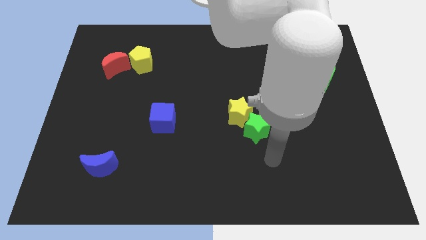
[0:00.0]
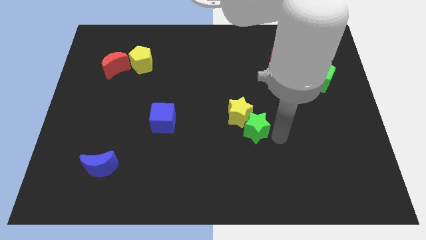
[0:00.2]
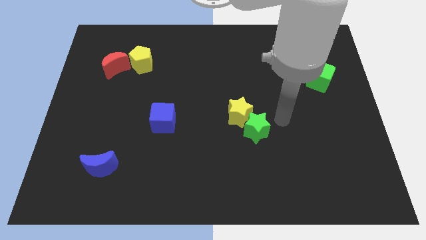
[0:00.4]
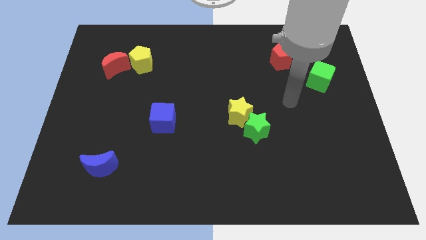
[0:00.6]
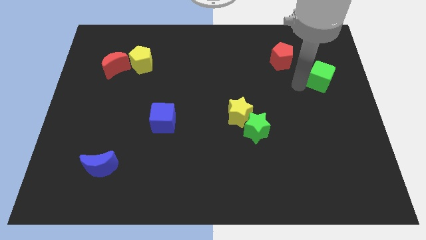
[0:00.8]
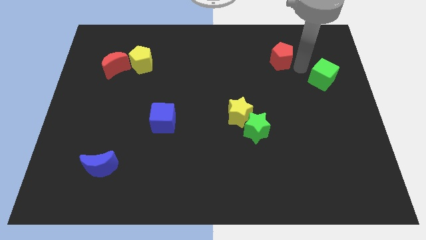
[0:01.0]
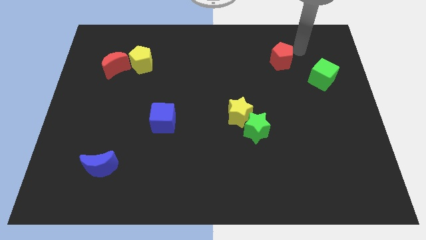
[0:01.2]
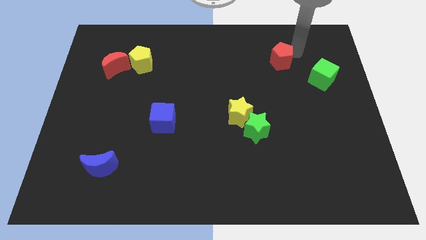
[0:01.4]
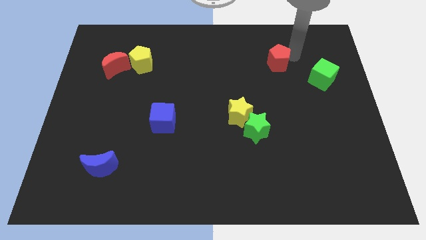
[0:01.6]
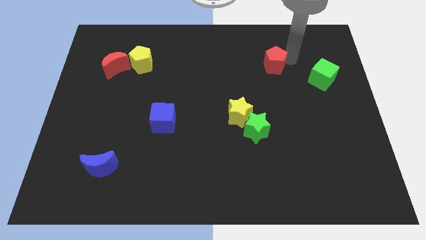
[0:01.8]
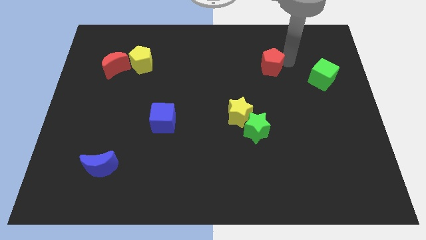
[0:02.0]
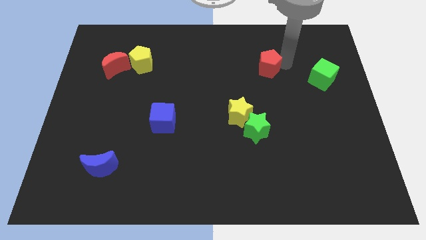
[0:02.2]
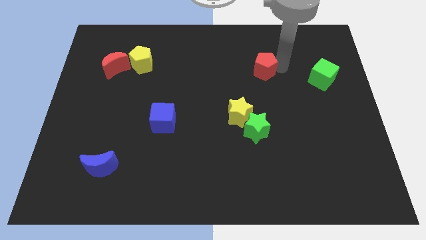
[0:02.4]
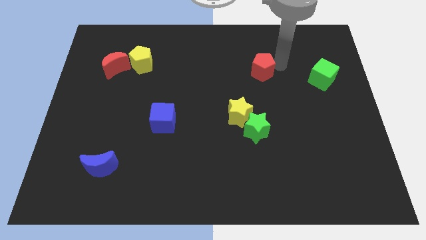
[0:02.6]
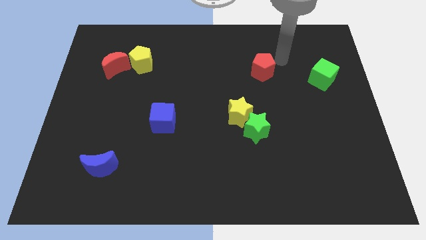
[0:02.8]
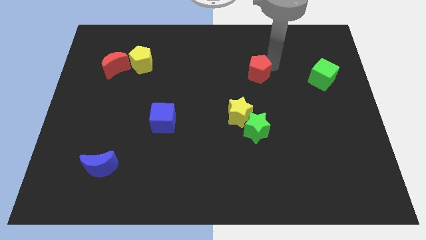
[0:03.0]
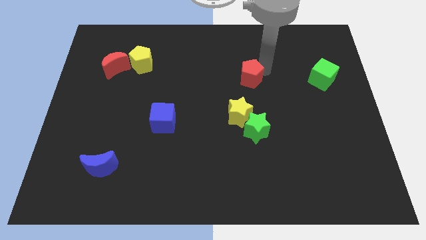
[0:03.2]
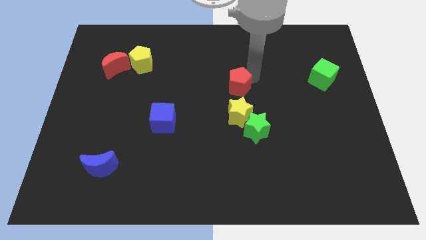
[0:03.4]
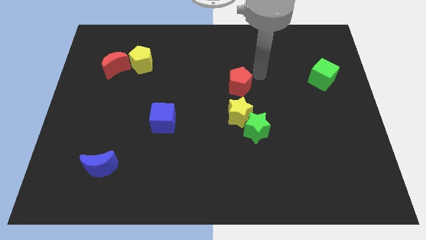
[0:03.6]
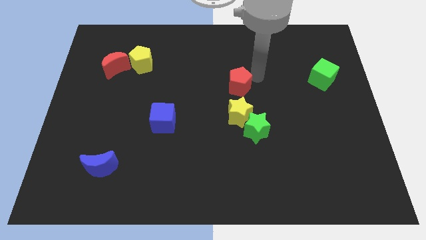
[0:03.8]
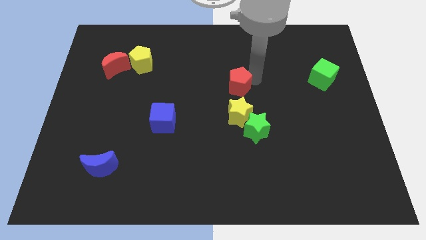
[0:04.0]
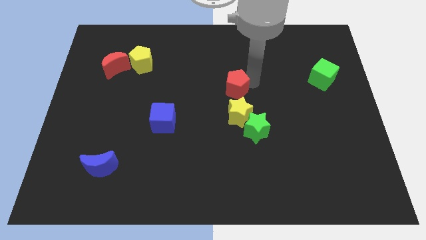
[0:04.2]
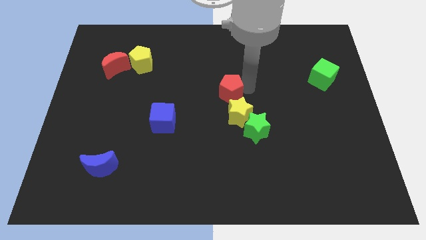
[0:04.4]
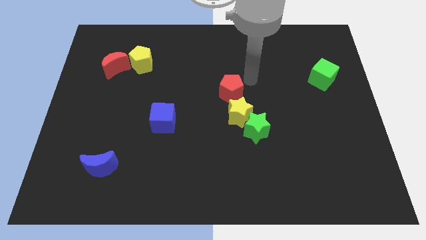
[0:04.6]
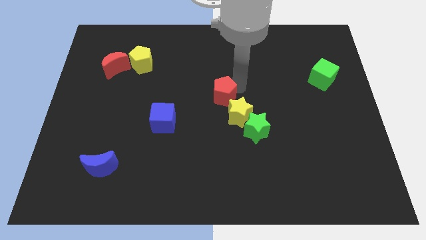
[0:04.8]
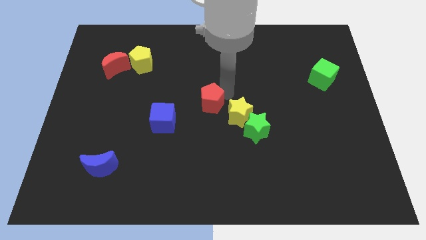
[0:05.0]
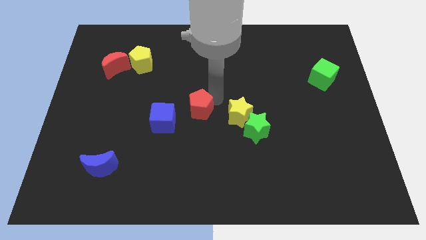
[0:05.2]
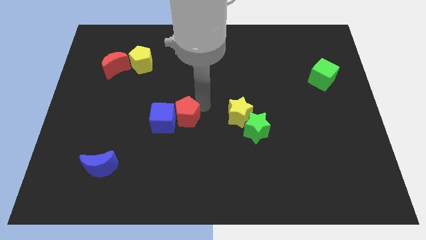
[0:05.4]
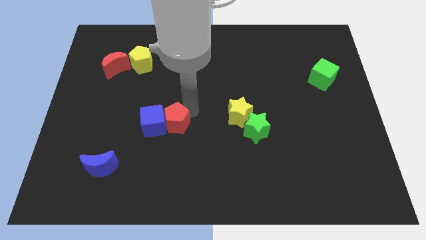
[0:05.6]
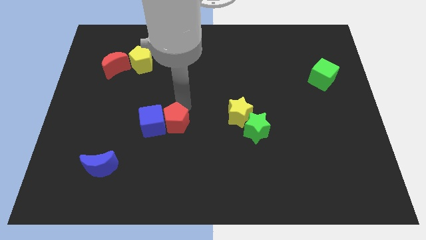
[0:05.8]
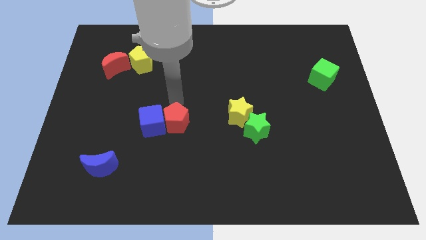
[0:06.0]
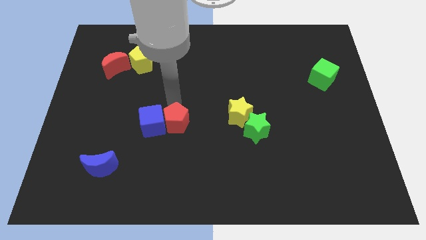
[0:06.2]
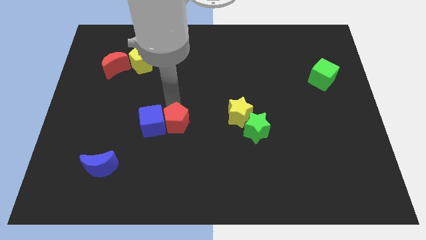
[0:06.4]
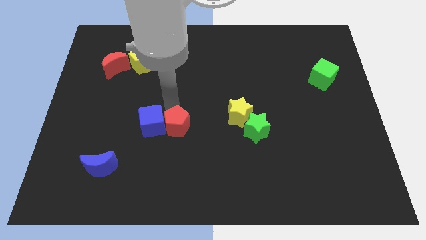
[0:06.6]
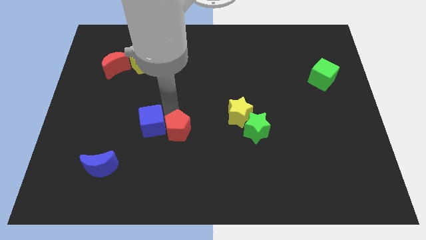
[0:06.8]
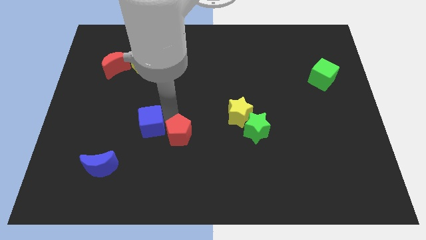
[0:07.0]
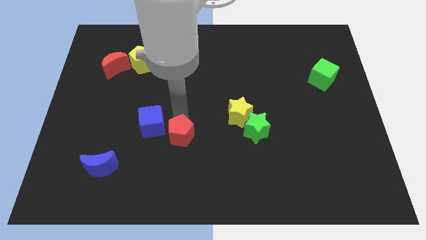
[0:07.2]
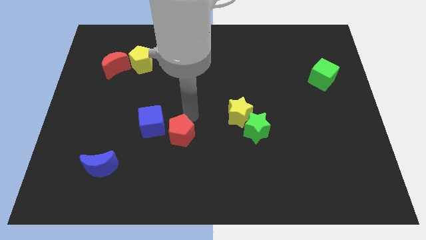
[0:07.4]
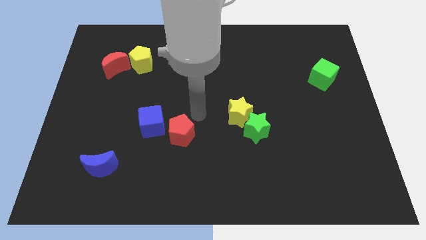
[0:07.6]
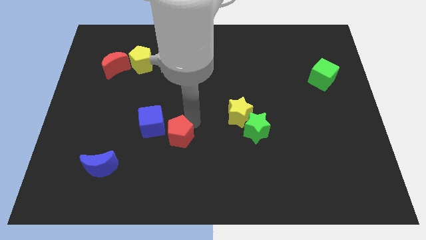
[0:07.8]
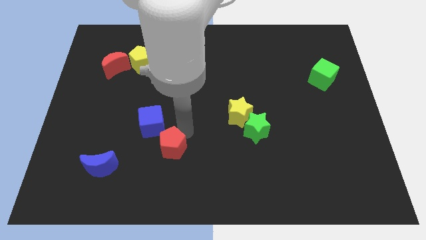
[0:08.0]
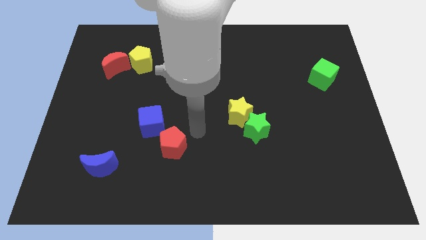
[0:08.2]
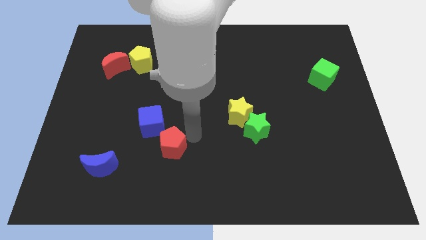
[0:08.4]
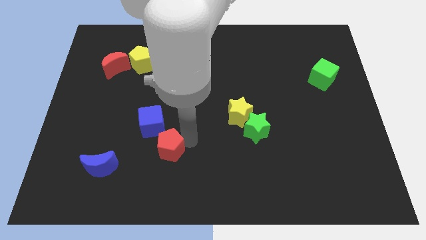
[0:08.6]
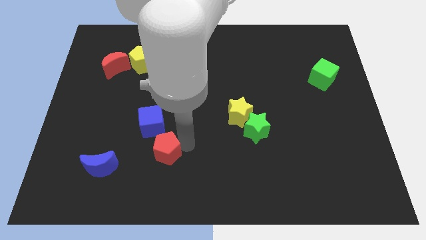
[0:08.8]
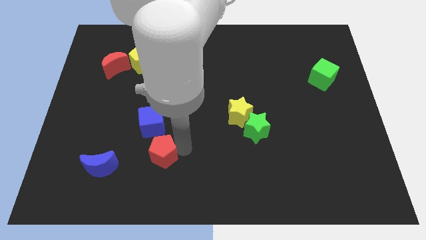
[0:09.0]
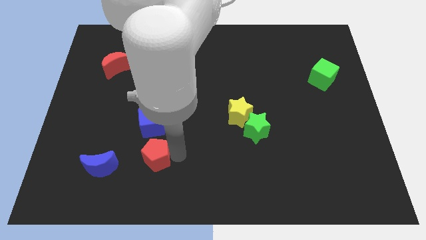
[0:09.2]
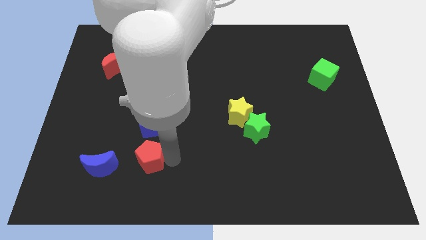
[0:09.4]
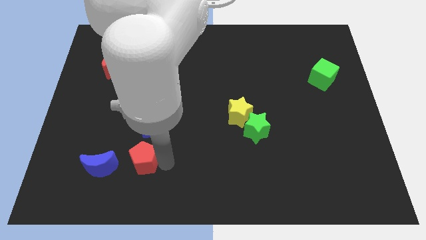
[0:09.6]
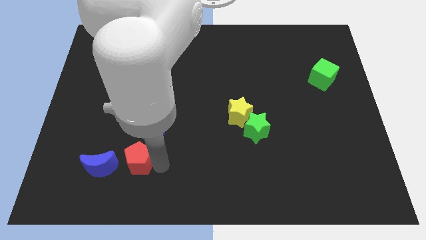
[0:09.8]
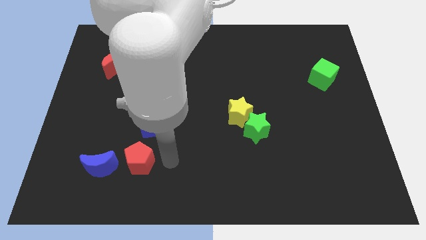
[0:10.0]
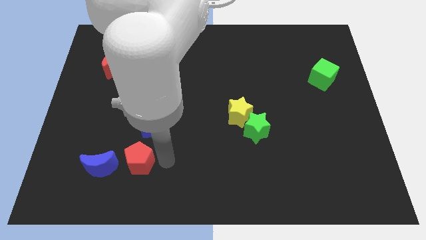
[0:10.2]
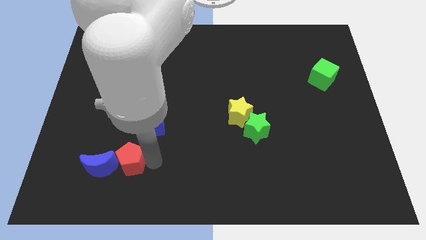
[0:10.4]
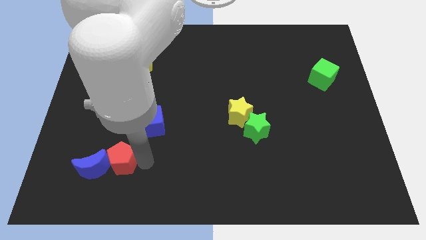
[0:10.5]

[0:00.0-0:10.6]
push the red pentagon towards the blue moon

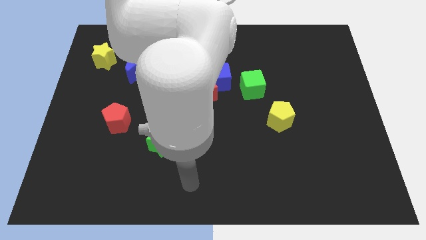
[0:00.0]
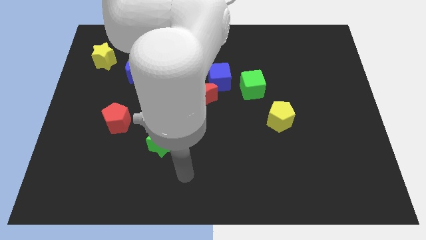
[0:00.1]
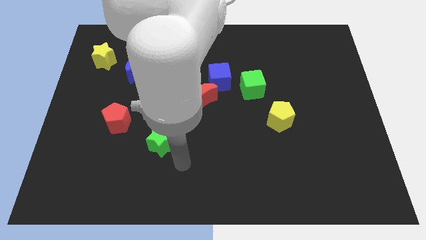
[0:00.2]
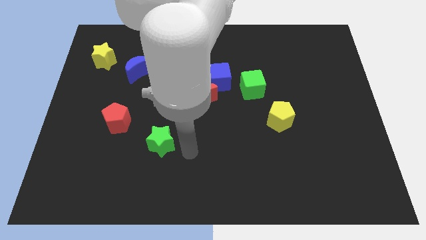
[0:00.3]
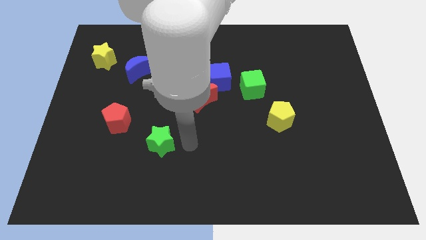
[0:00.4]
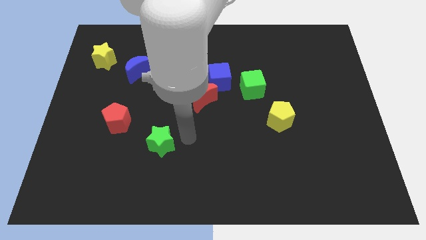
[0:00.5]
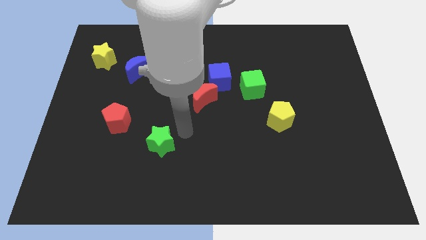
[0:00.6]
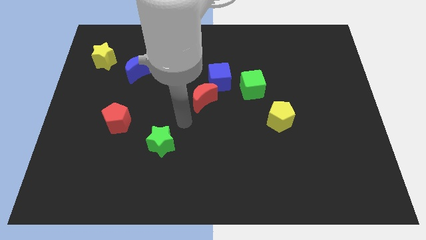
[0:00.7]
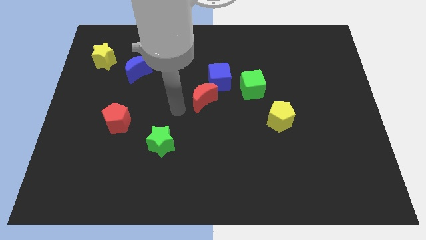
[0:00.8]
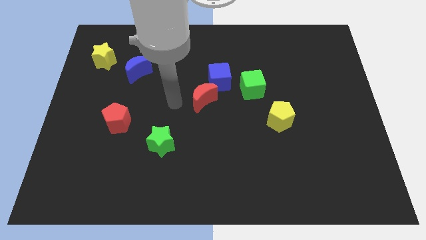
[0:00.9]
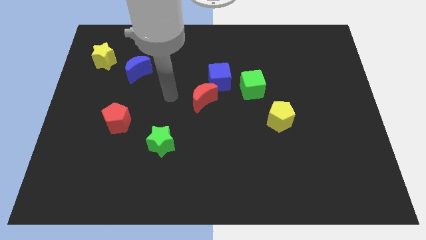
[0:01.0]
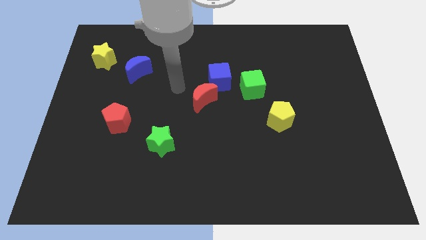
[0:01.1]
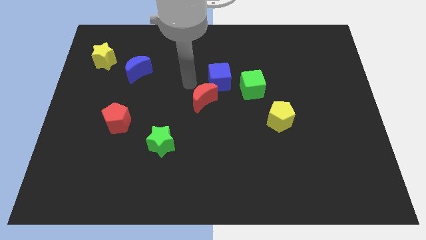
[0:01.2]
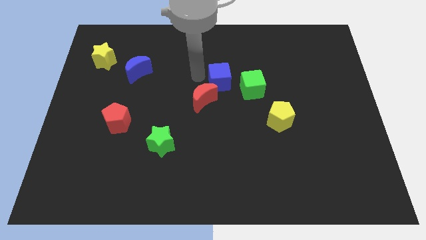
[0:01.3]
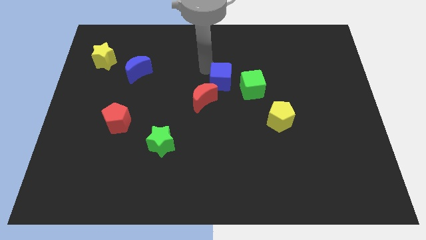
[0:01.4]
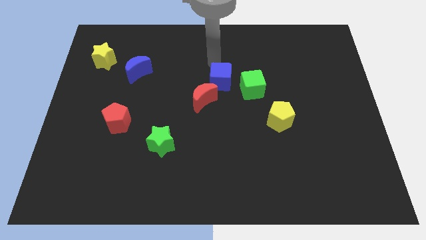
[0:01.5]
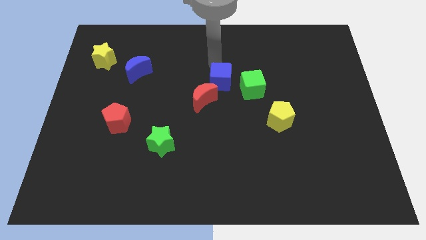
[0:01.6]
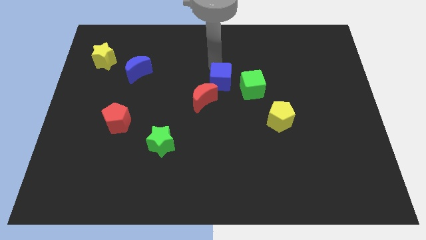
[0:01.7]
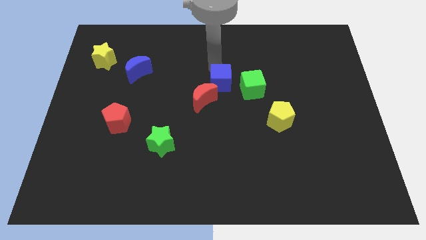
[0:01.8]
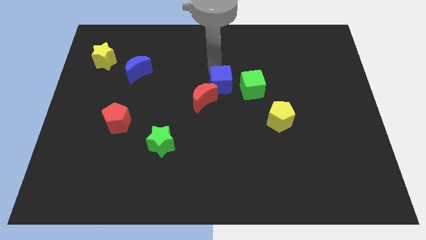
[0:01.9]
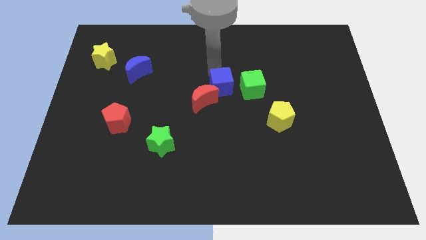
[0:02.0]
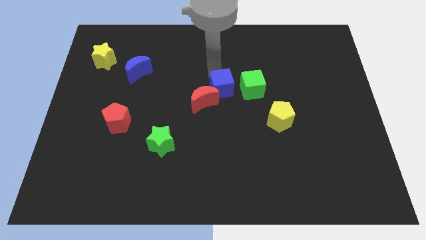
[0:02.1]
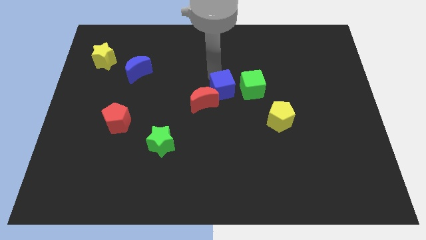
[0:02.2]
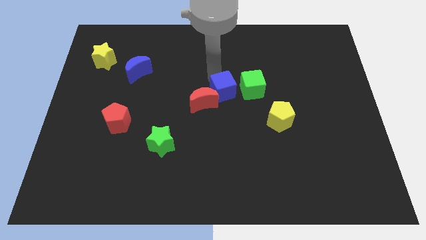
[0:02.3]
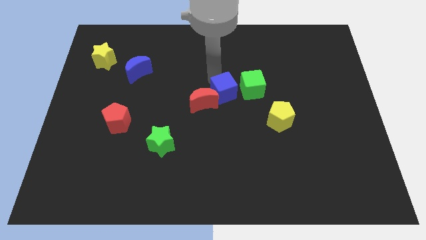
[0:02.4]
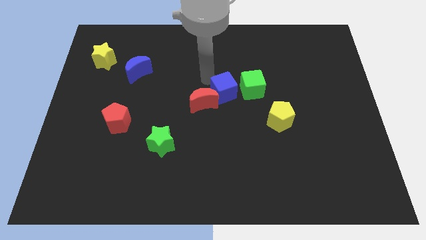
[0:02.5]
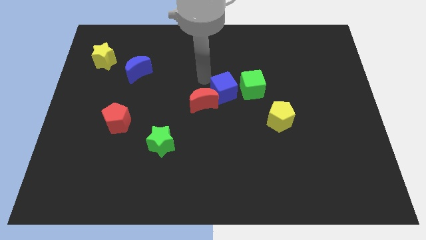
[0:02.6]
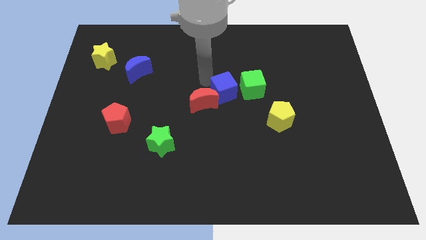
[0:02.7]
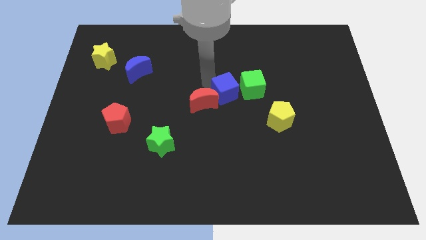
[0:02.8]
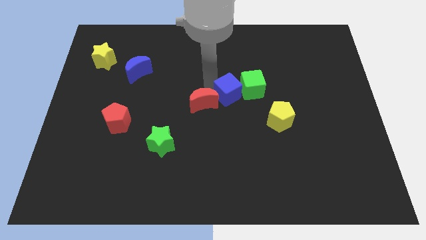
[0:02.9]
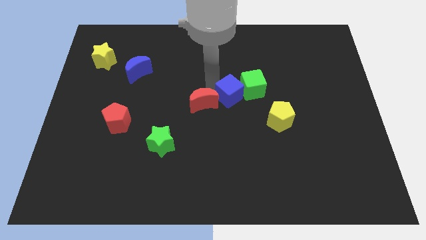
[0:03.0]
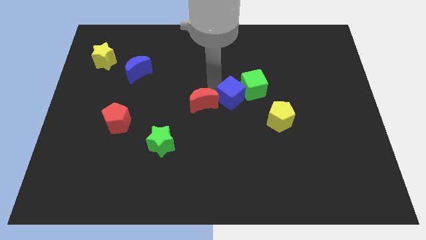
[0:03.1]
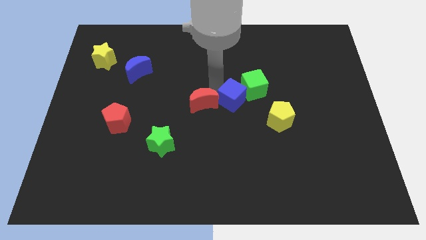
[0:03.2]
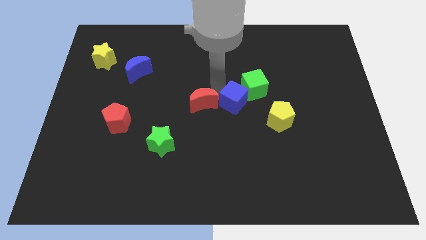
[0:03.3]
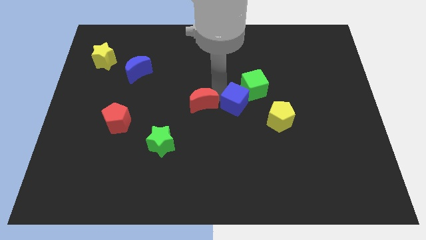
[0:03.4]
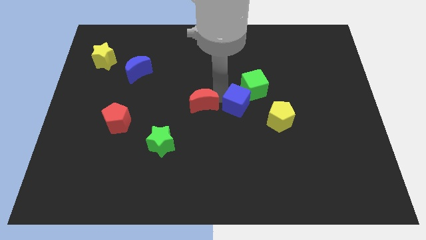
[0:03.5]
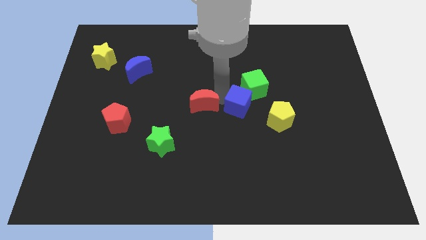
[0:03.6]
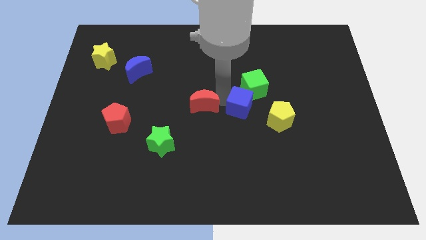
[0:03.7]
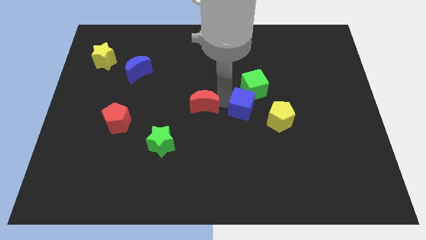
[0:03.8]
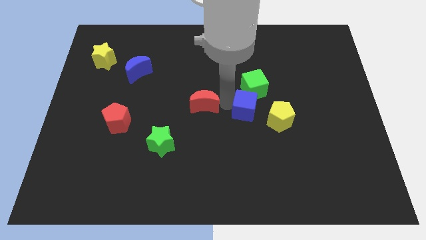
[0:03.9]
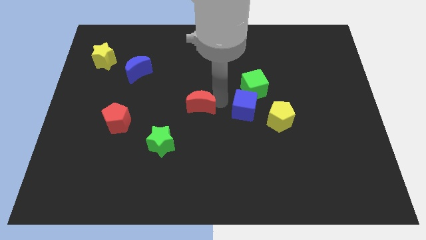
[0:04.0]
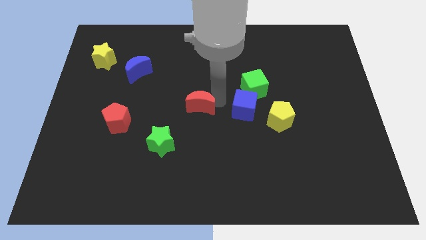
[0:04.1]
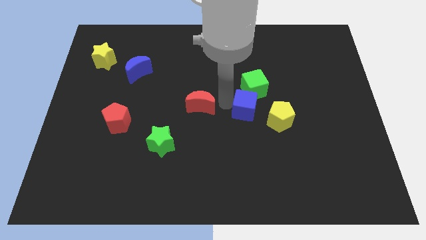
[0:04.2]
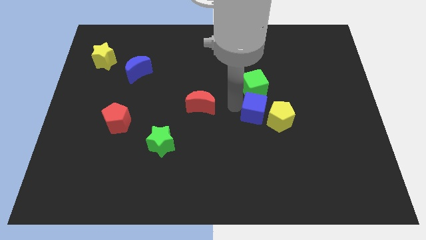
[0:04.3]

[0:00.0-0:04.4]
push the blue cube towards the yellow pentagon
